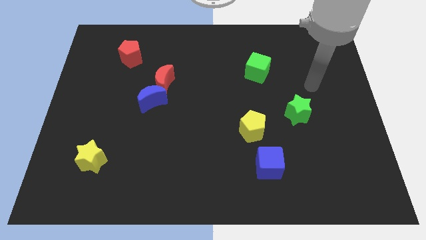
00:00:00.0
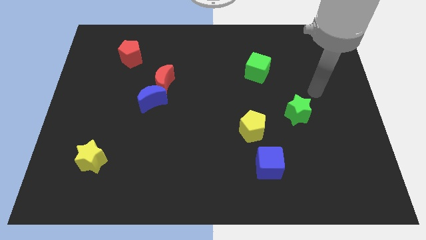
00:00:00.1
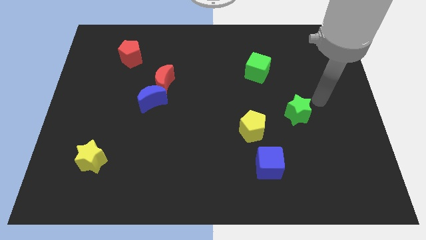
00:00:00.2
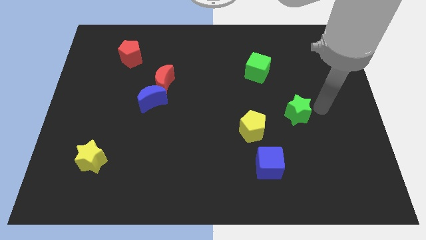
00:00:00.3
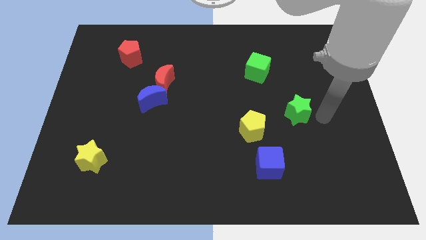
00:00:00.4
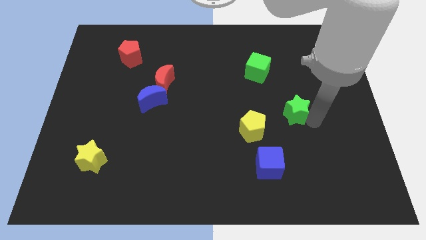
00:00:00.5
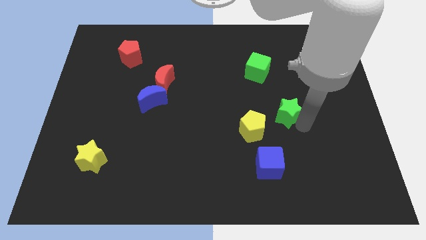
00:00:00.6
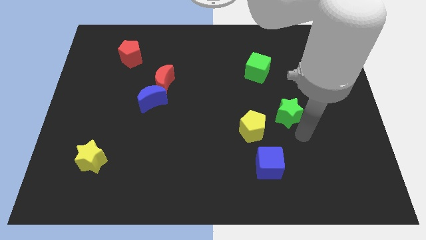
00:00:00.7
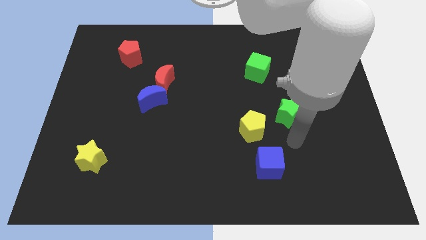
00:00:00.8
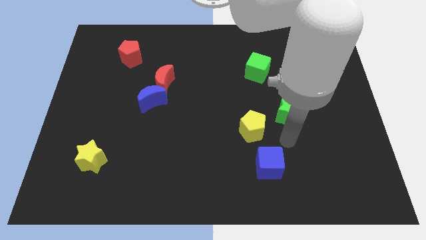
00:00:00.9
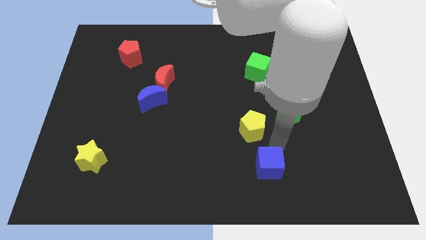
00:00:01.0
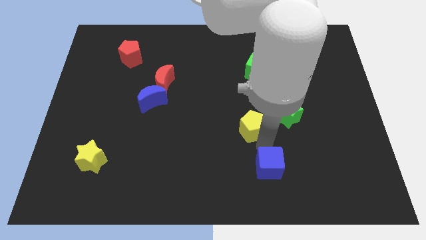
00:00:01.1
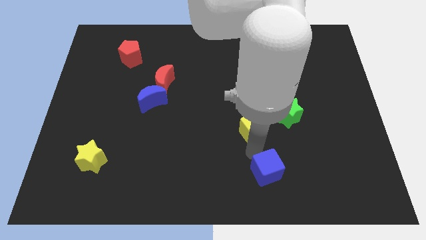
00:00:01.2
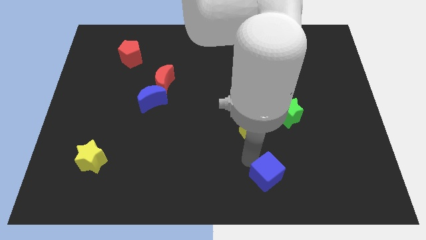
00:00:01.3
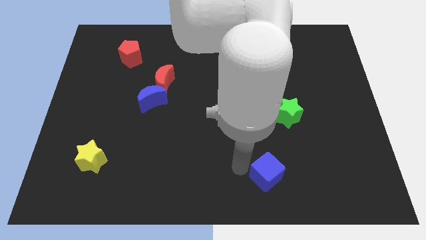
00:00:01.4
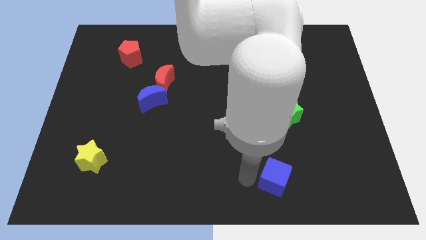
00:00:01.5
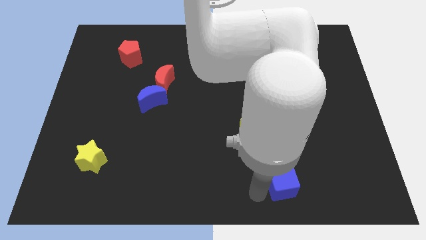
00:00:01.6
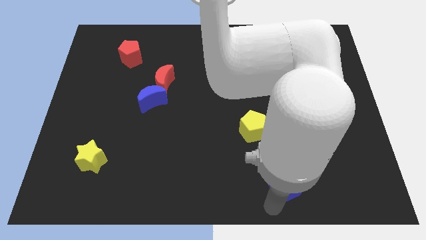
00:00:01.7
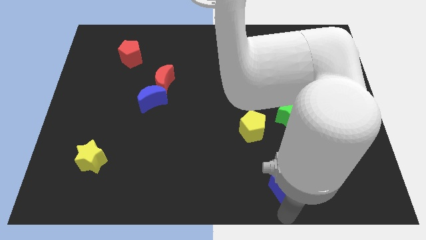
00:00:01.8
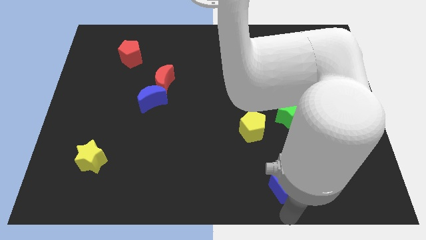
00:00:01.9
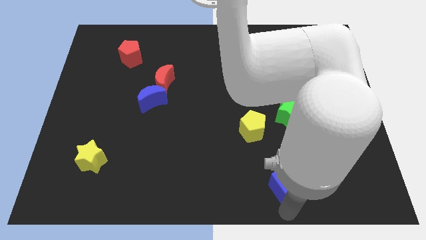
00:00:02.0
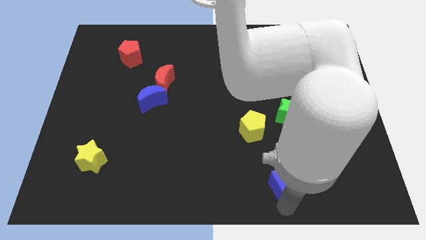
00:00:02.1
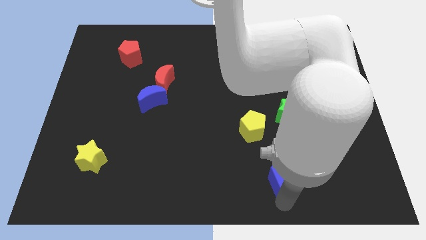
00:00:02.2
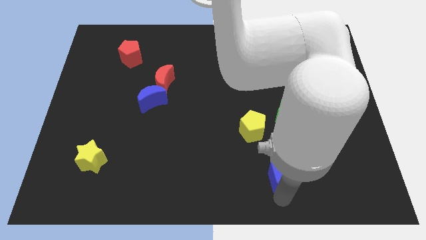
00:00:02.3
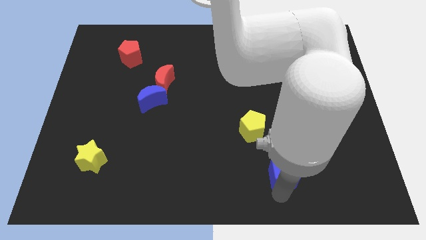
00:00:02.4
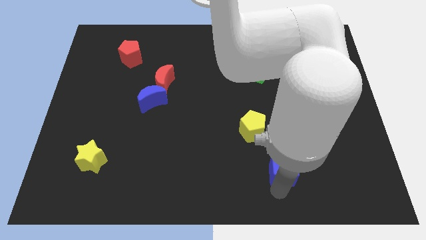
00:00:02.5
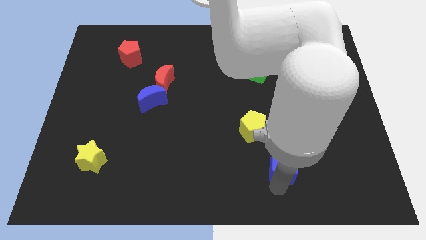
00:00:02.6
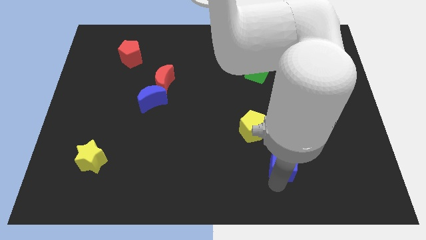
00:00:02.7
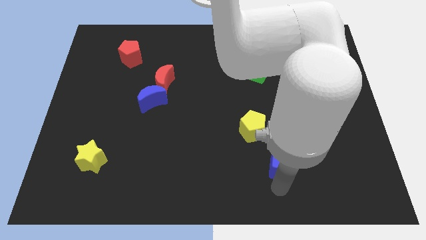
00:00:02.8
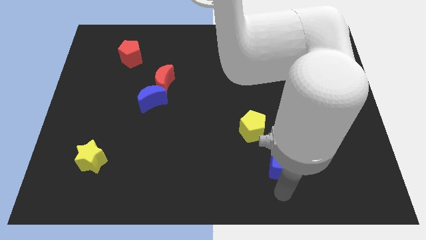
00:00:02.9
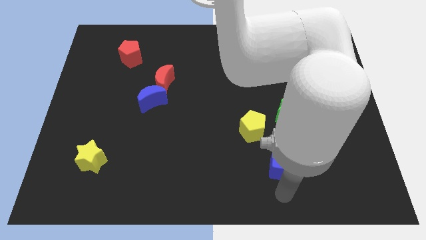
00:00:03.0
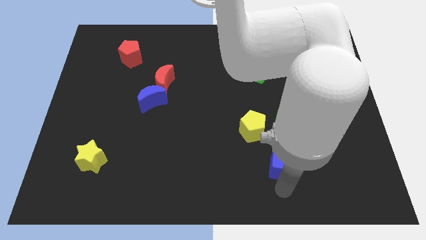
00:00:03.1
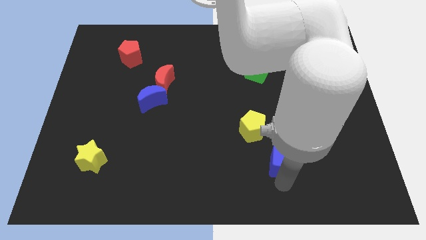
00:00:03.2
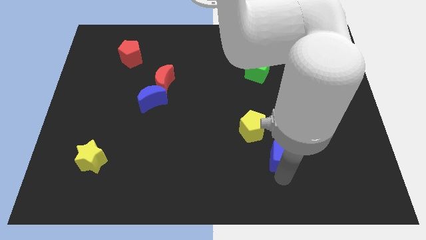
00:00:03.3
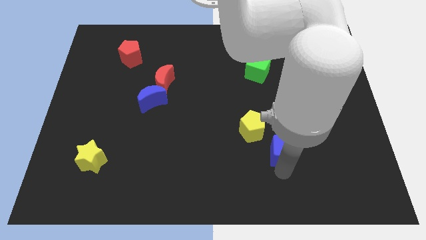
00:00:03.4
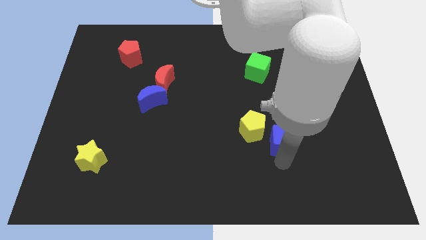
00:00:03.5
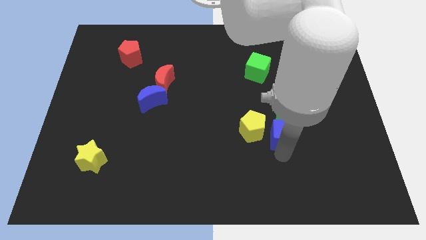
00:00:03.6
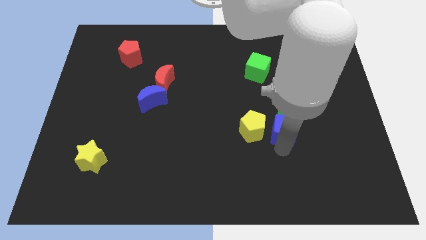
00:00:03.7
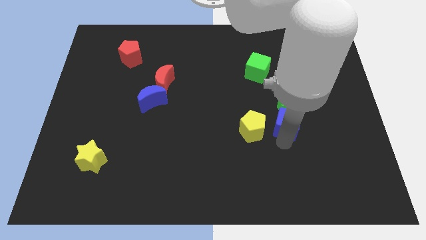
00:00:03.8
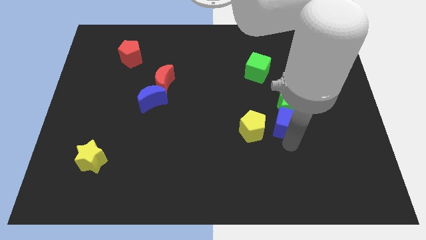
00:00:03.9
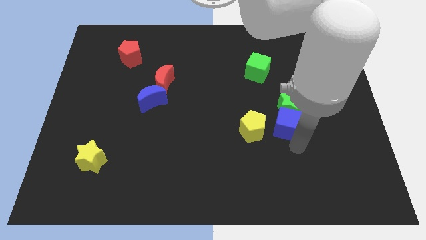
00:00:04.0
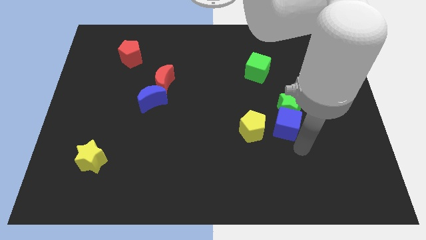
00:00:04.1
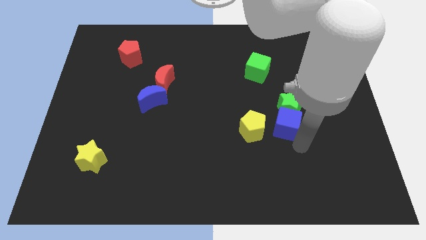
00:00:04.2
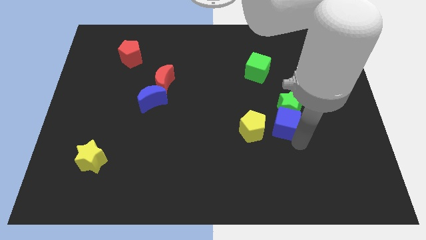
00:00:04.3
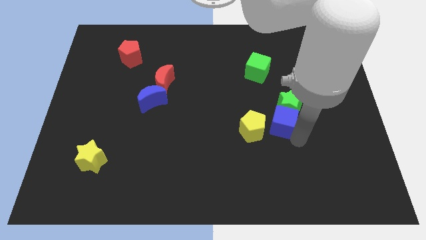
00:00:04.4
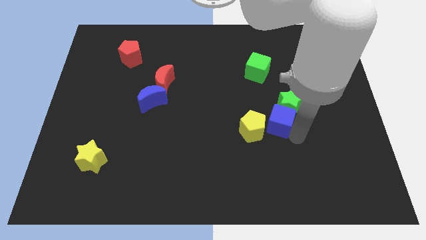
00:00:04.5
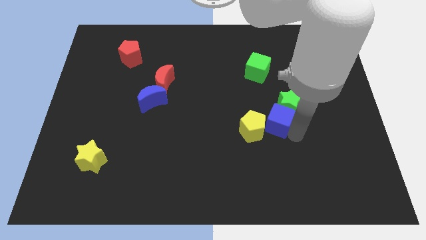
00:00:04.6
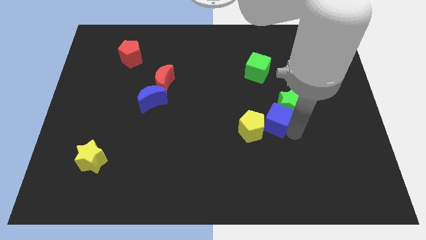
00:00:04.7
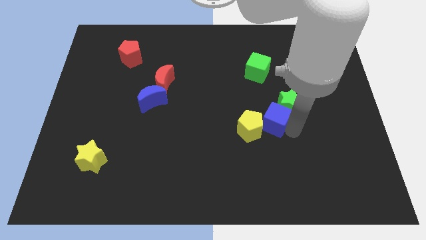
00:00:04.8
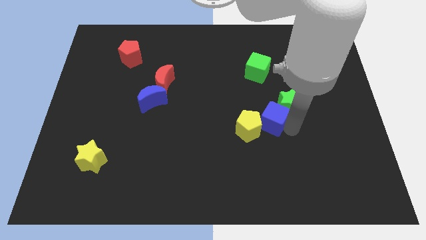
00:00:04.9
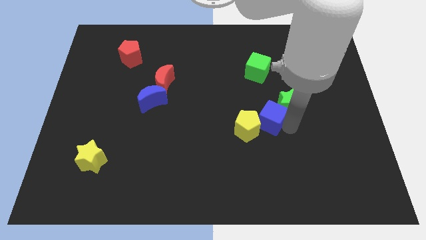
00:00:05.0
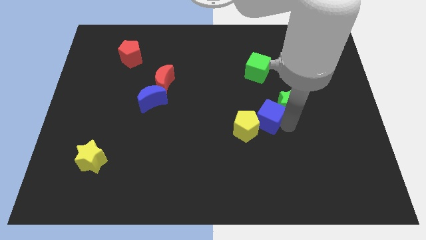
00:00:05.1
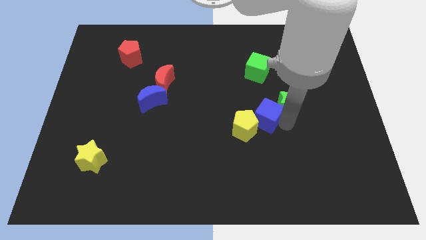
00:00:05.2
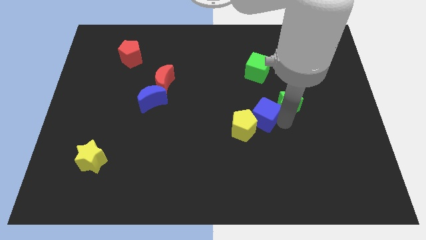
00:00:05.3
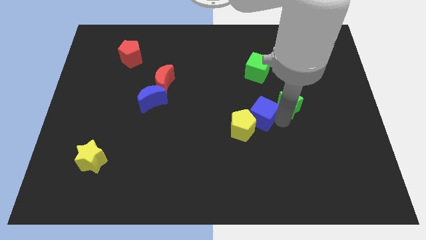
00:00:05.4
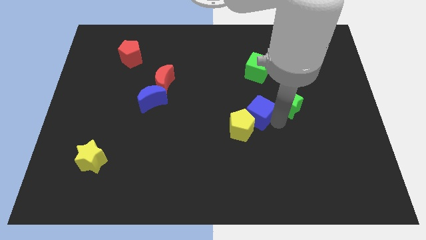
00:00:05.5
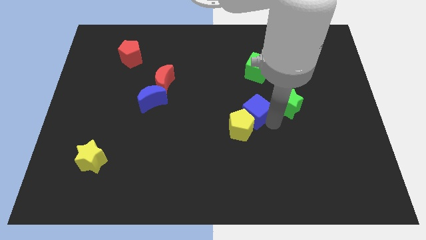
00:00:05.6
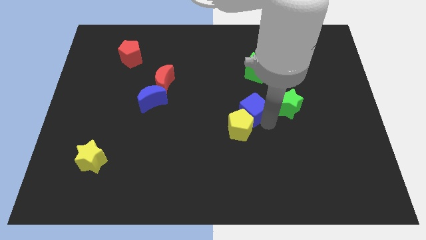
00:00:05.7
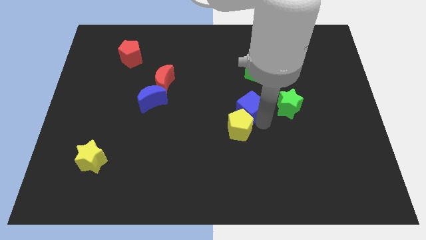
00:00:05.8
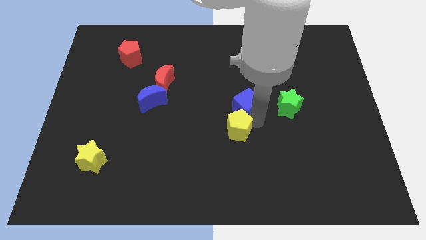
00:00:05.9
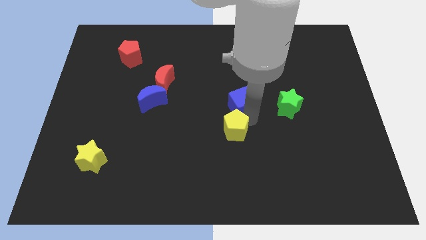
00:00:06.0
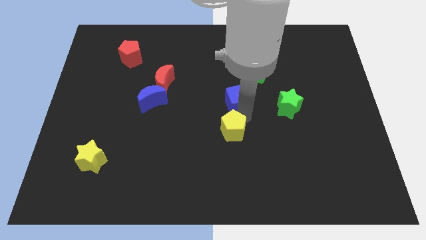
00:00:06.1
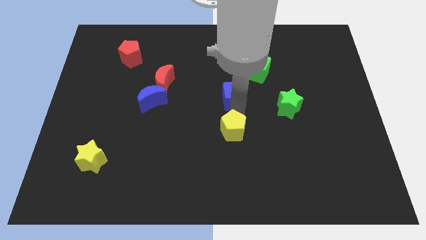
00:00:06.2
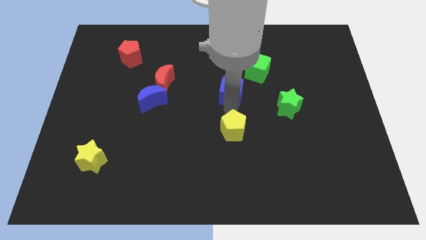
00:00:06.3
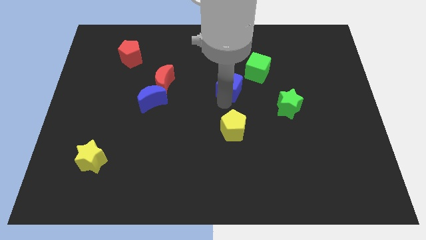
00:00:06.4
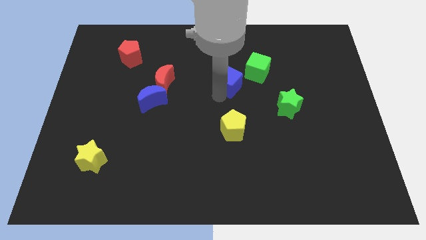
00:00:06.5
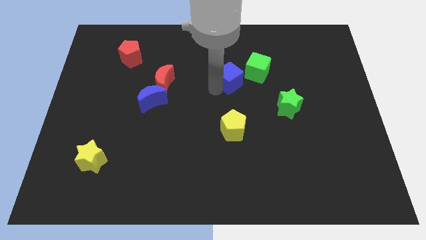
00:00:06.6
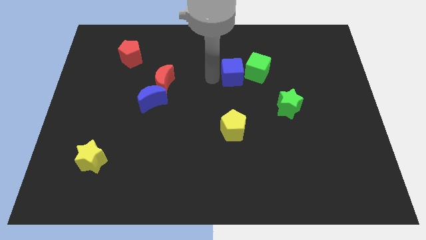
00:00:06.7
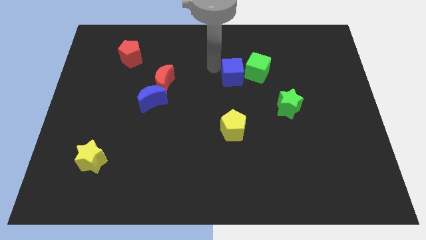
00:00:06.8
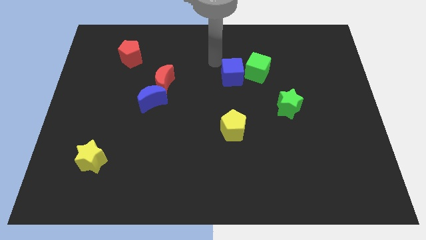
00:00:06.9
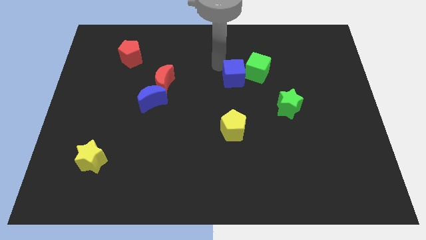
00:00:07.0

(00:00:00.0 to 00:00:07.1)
push the blue cube next to the green cube
